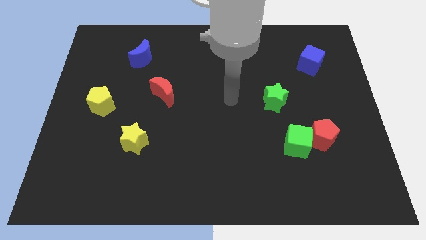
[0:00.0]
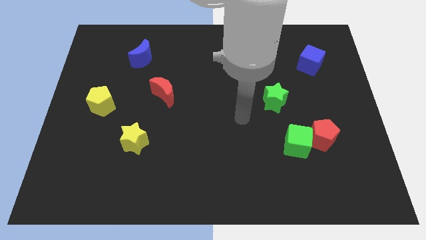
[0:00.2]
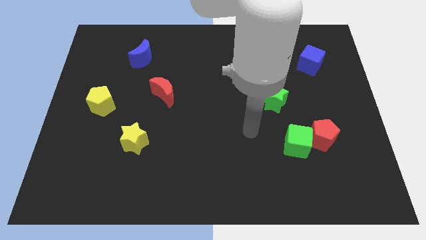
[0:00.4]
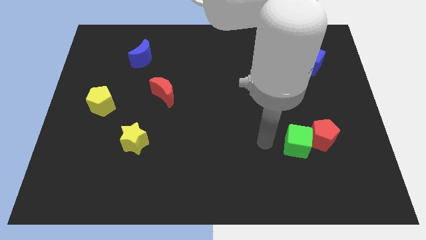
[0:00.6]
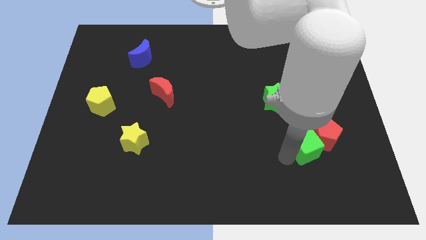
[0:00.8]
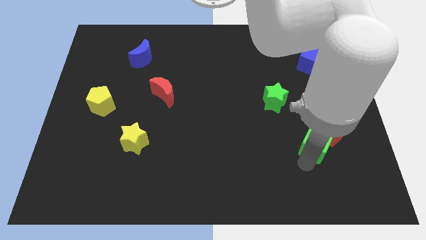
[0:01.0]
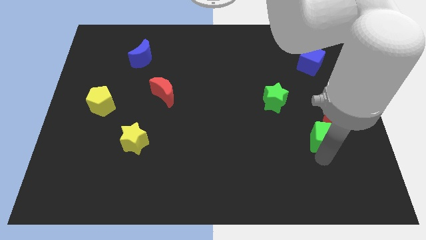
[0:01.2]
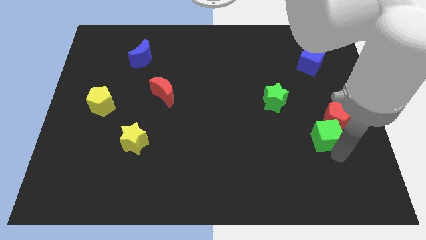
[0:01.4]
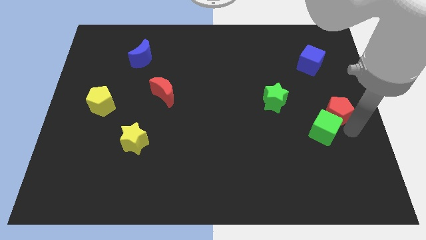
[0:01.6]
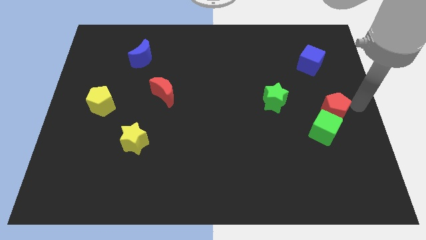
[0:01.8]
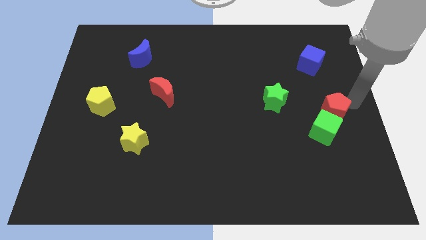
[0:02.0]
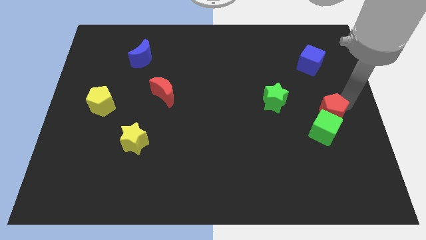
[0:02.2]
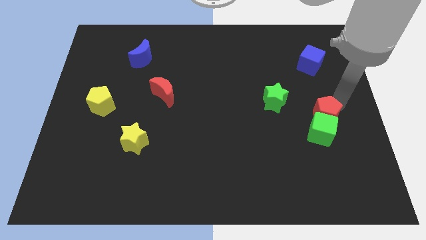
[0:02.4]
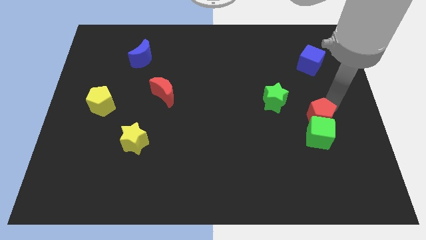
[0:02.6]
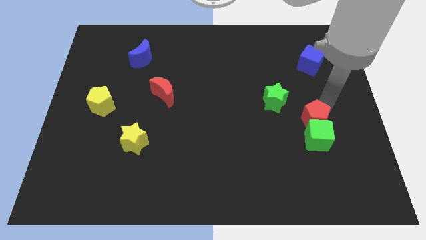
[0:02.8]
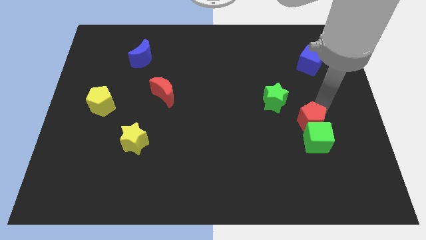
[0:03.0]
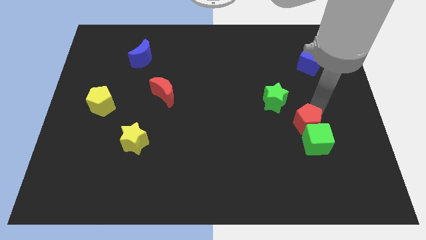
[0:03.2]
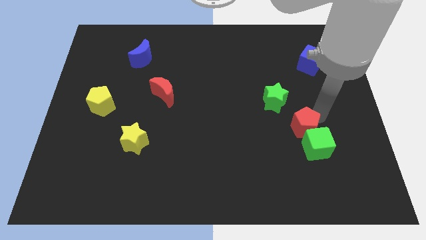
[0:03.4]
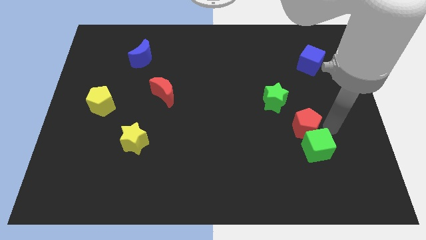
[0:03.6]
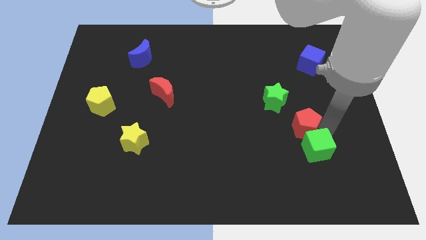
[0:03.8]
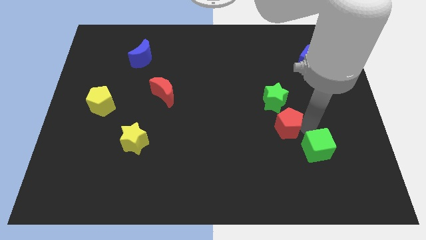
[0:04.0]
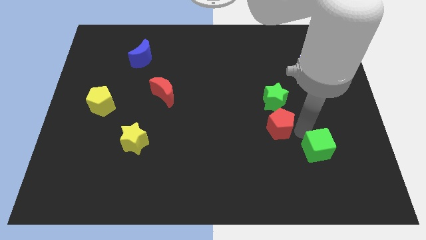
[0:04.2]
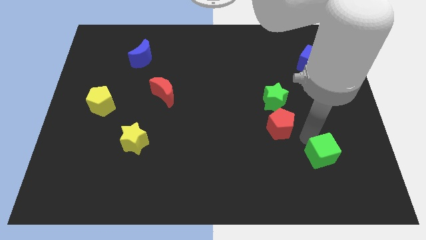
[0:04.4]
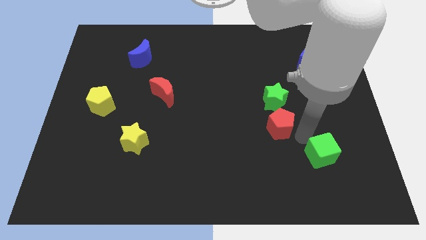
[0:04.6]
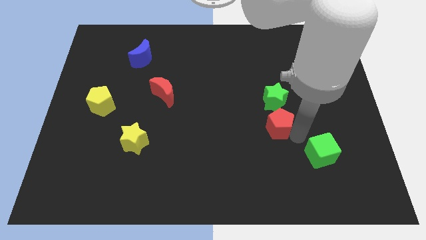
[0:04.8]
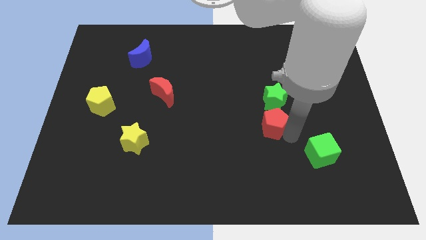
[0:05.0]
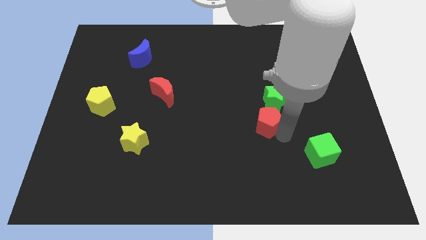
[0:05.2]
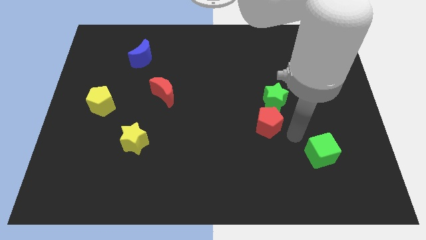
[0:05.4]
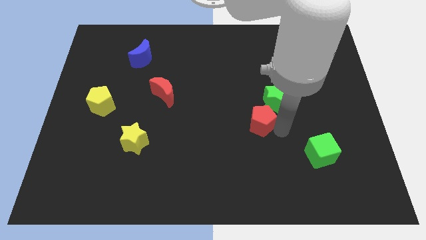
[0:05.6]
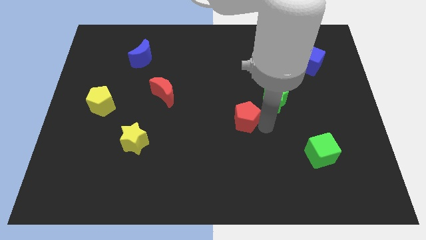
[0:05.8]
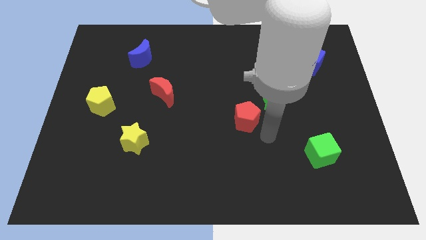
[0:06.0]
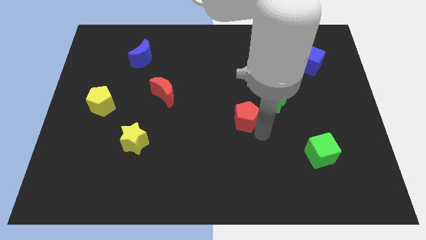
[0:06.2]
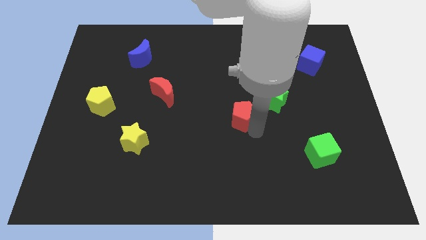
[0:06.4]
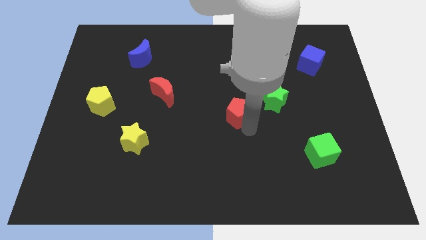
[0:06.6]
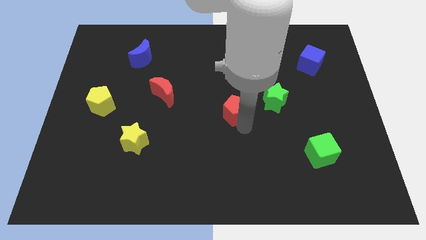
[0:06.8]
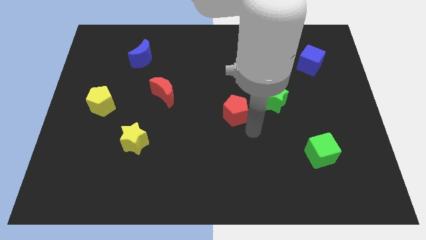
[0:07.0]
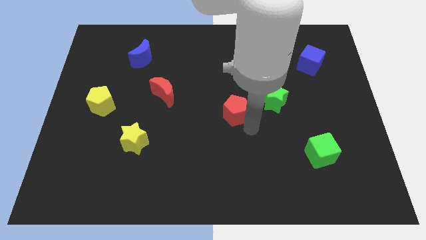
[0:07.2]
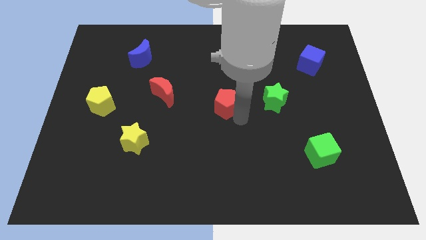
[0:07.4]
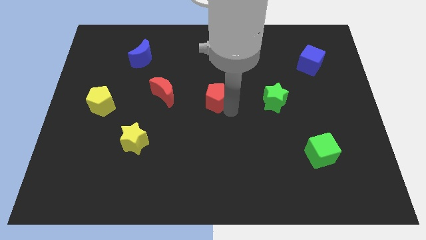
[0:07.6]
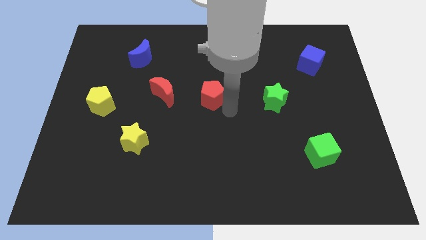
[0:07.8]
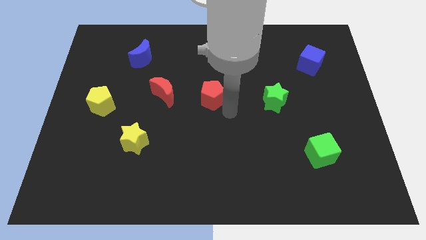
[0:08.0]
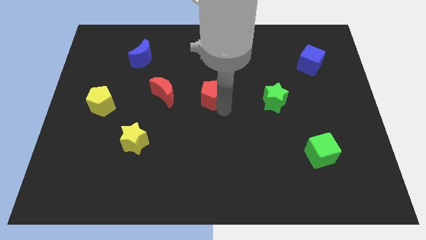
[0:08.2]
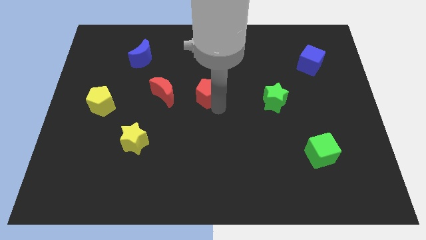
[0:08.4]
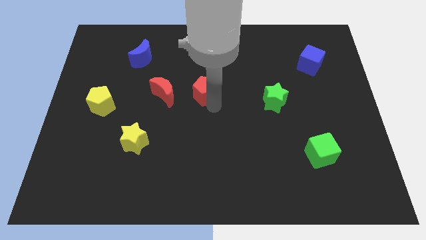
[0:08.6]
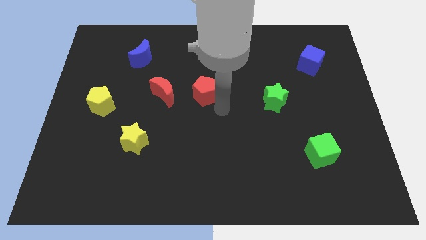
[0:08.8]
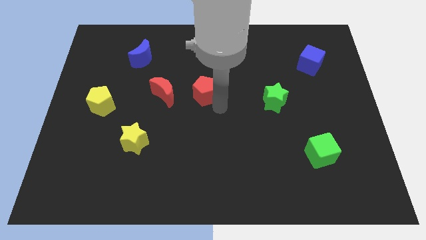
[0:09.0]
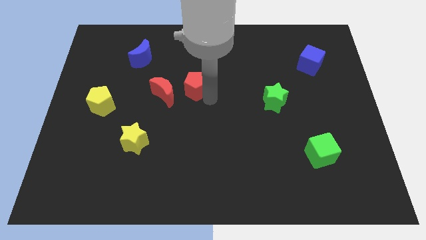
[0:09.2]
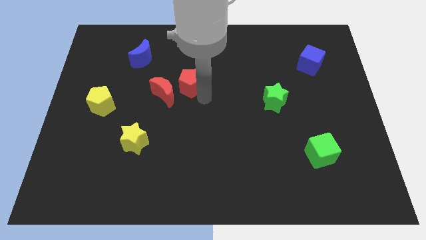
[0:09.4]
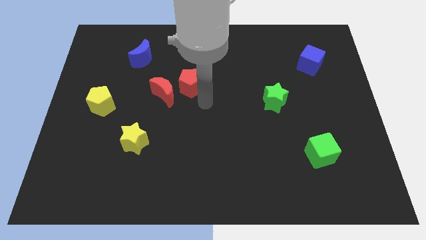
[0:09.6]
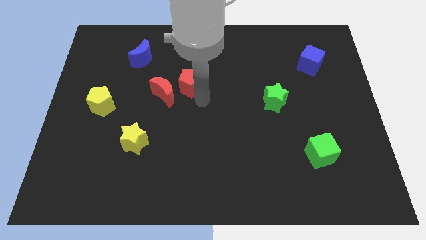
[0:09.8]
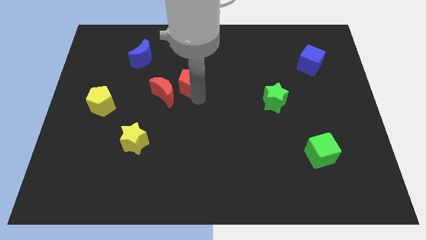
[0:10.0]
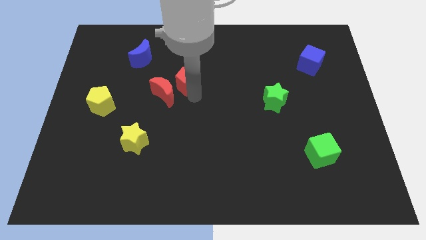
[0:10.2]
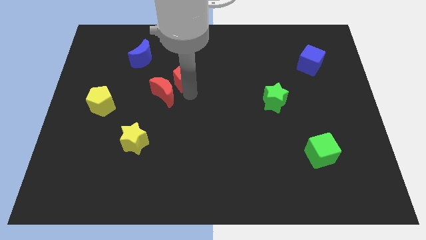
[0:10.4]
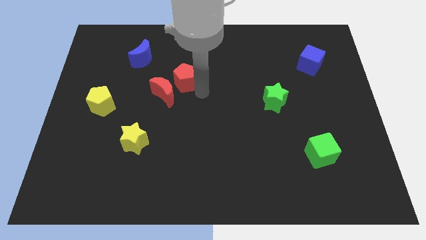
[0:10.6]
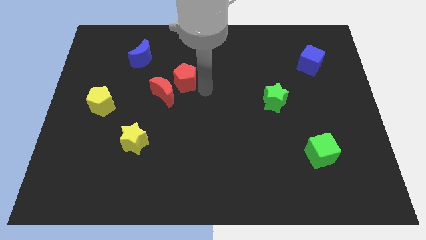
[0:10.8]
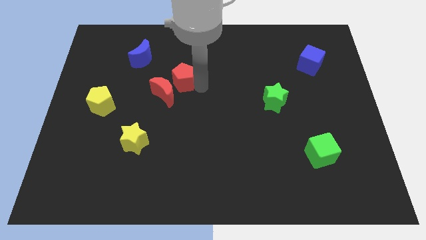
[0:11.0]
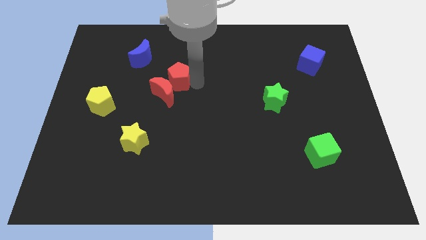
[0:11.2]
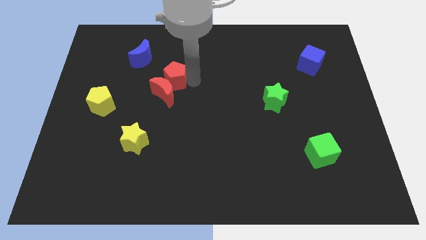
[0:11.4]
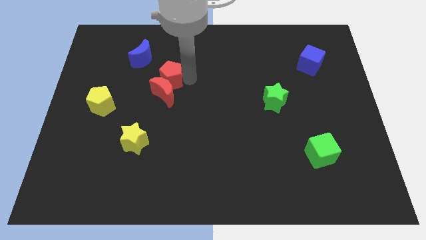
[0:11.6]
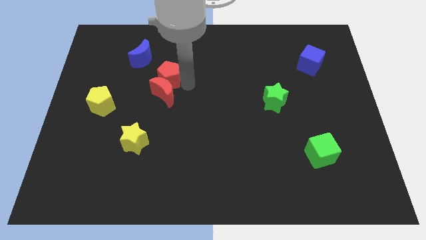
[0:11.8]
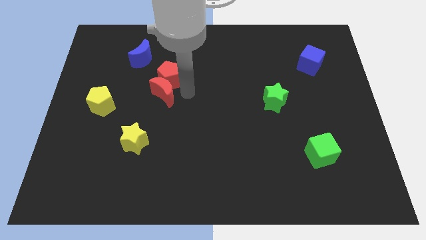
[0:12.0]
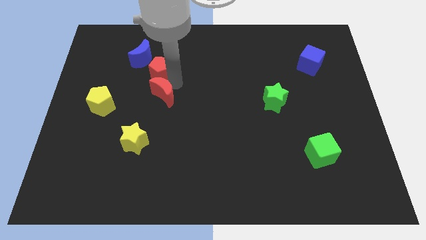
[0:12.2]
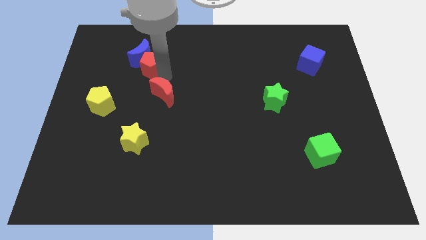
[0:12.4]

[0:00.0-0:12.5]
push the red pentagon towards the blue moon

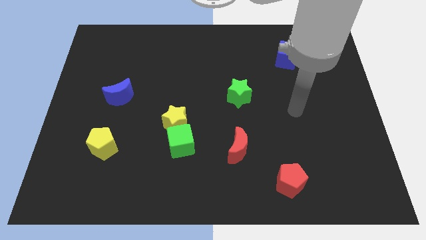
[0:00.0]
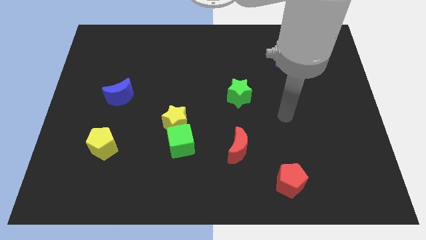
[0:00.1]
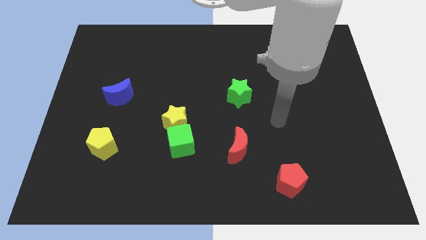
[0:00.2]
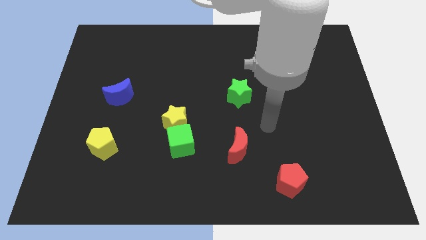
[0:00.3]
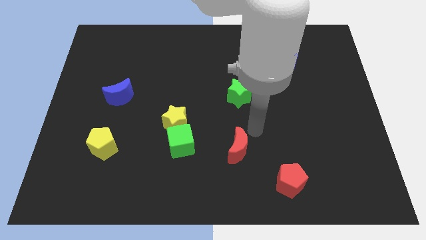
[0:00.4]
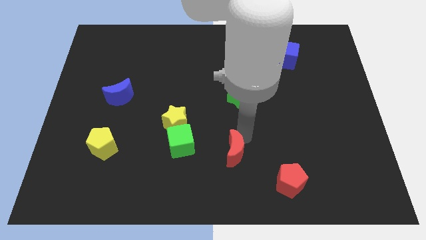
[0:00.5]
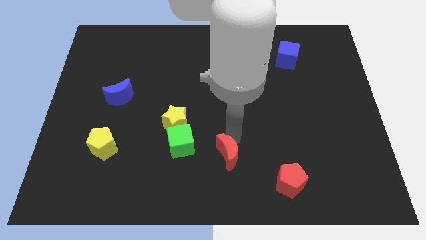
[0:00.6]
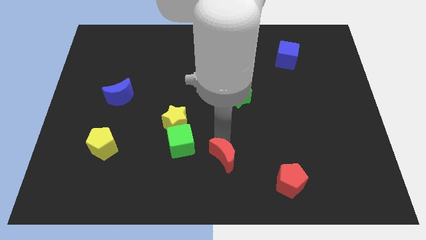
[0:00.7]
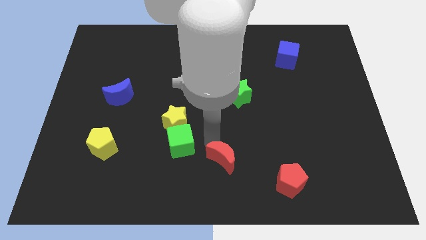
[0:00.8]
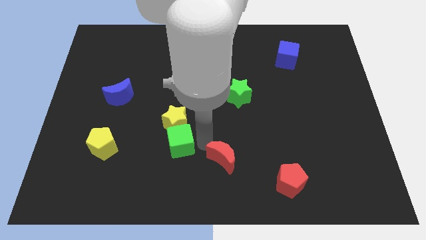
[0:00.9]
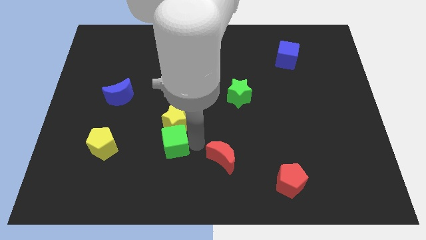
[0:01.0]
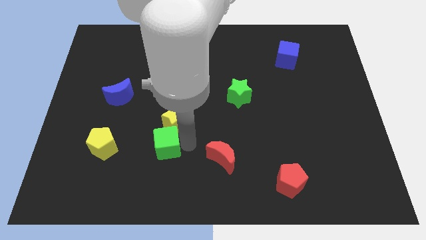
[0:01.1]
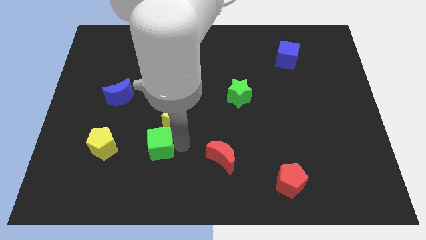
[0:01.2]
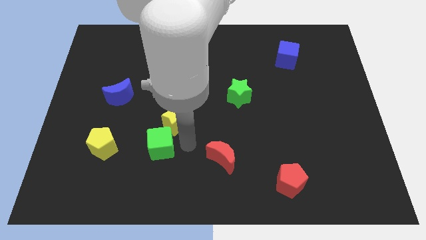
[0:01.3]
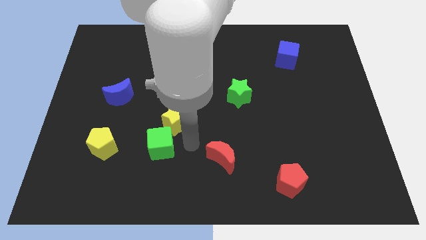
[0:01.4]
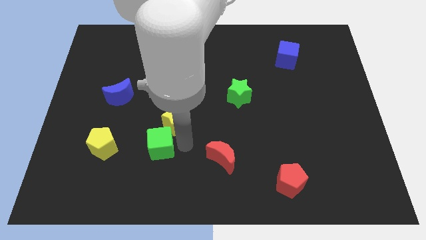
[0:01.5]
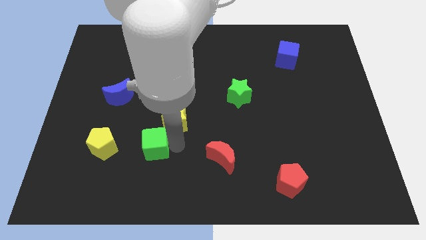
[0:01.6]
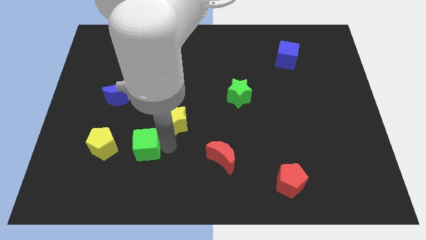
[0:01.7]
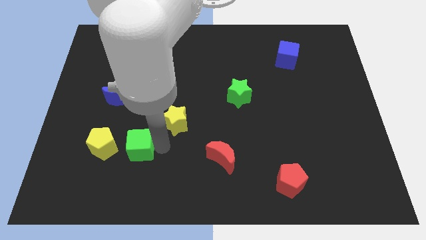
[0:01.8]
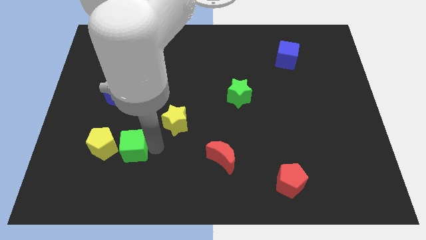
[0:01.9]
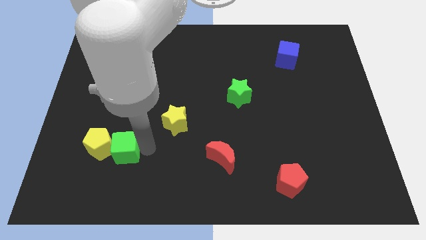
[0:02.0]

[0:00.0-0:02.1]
put the green cube next to the yellow pentagon
